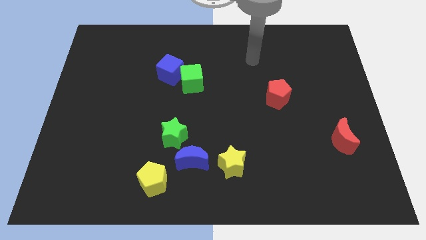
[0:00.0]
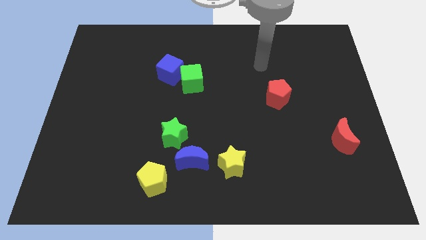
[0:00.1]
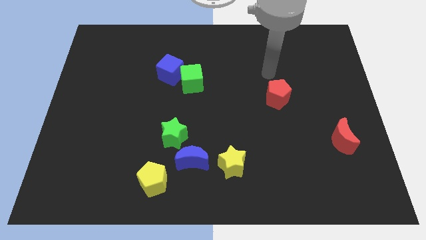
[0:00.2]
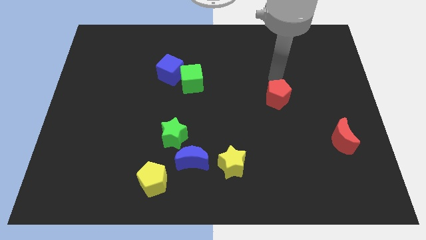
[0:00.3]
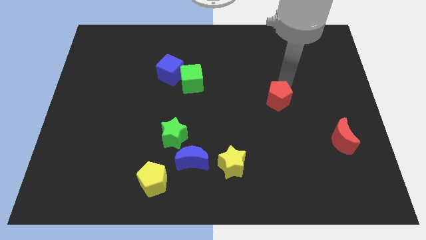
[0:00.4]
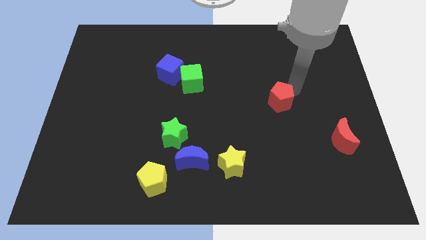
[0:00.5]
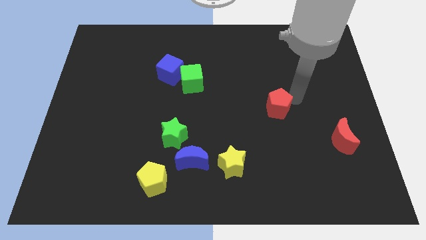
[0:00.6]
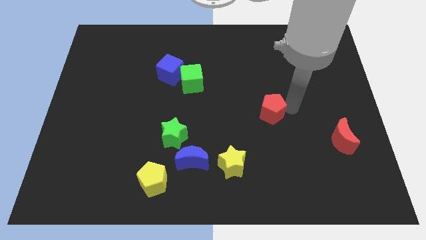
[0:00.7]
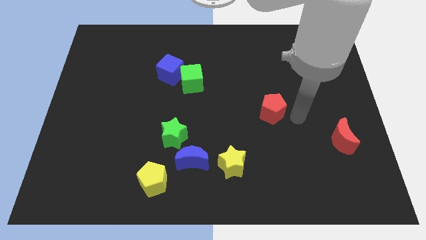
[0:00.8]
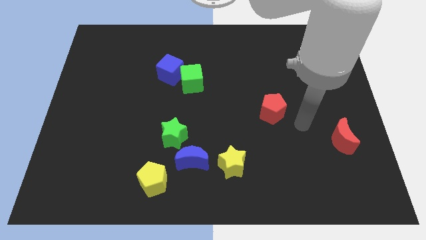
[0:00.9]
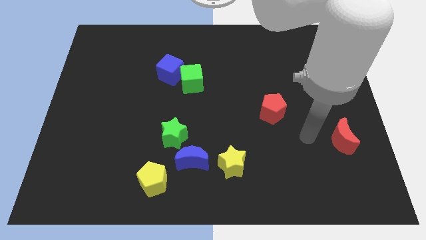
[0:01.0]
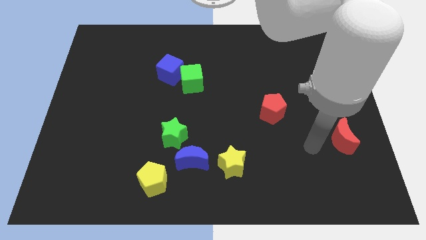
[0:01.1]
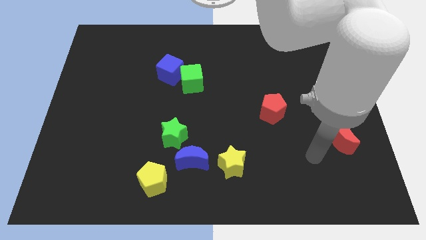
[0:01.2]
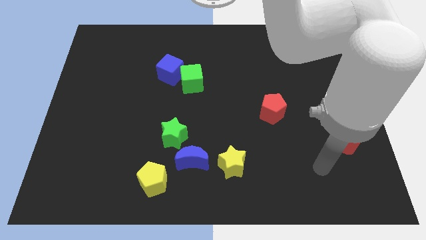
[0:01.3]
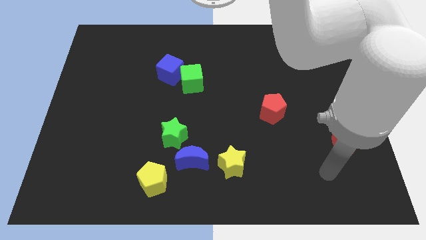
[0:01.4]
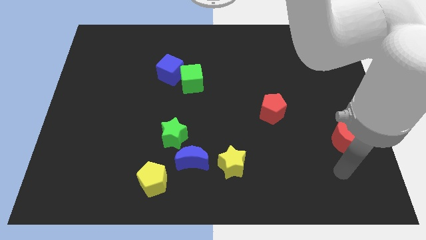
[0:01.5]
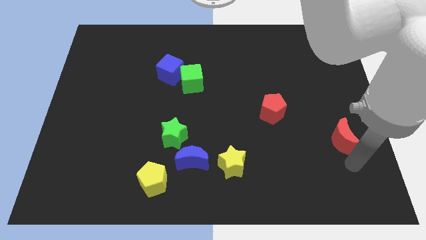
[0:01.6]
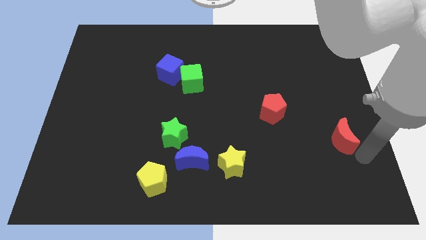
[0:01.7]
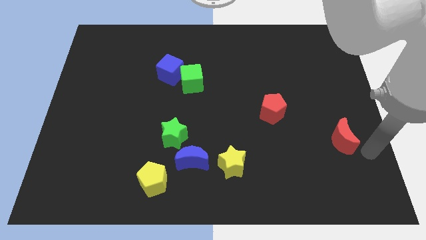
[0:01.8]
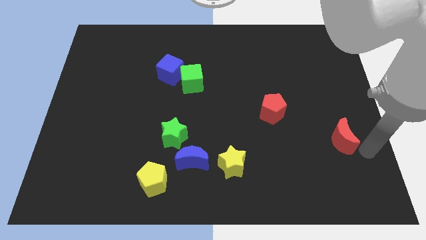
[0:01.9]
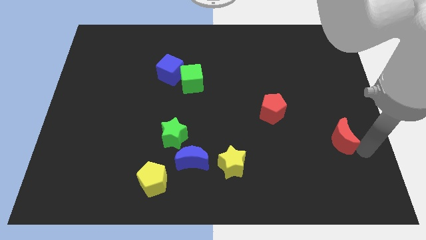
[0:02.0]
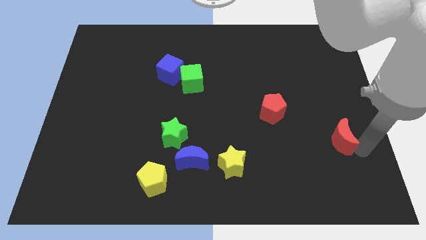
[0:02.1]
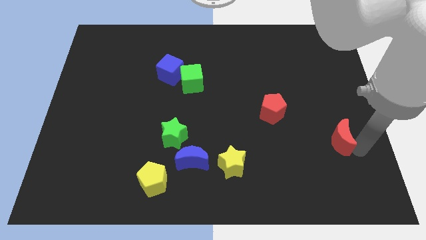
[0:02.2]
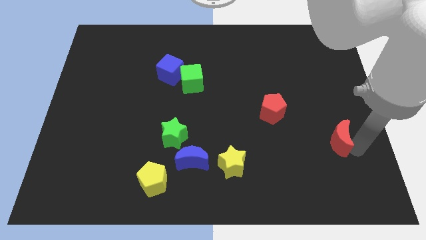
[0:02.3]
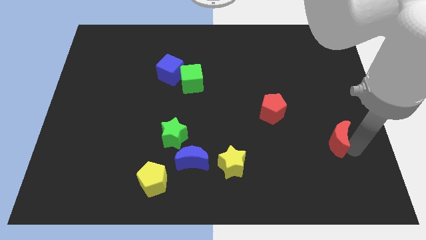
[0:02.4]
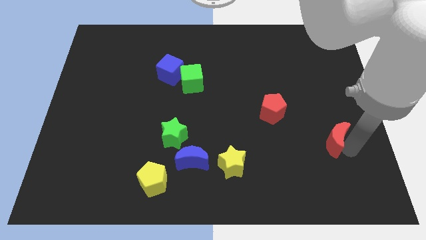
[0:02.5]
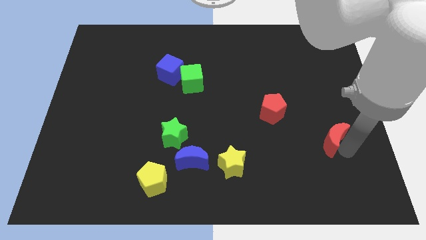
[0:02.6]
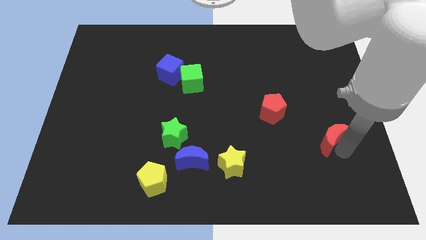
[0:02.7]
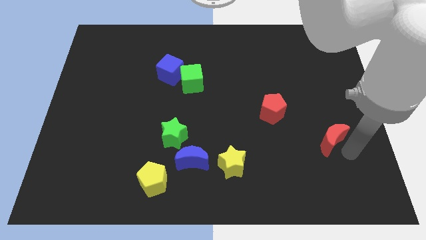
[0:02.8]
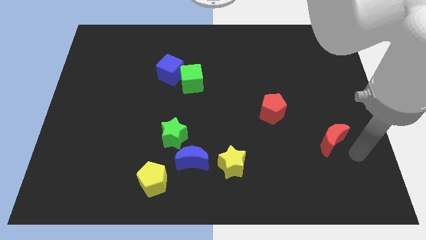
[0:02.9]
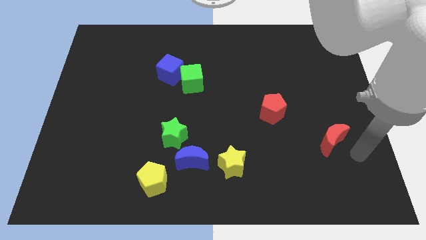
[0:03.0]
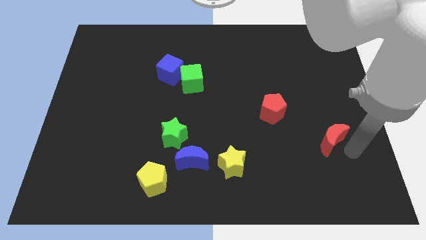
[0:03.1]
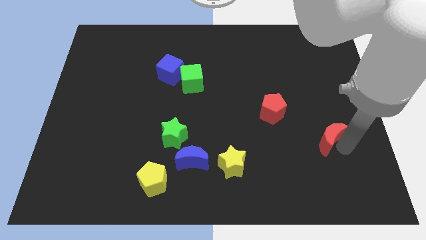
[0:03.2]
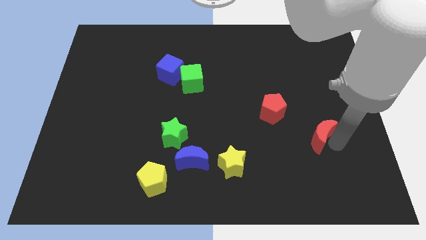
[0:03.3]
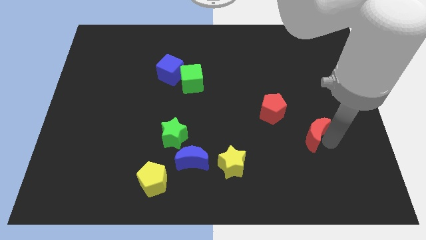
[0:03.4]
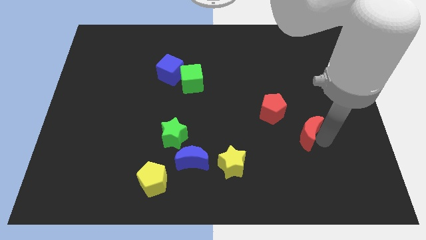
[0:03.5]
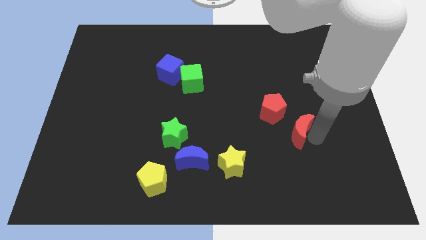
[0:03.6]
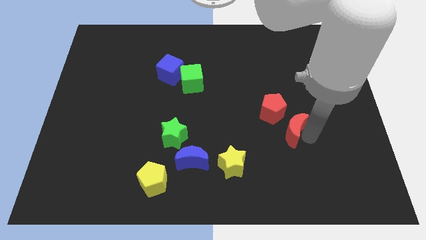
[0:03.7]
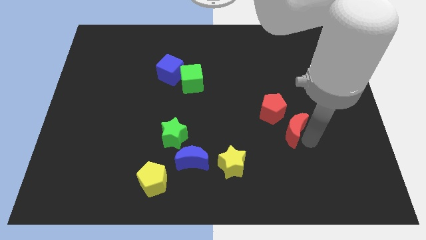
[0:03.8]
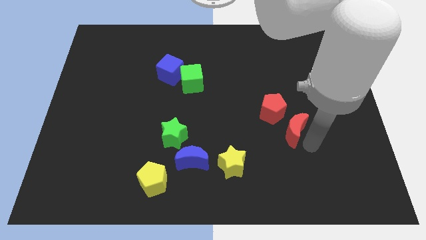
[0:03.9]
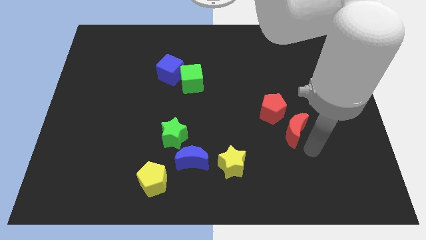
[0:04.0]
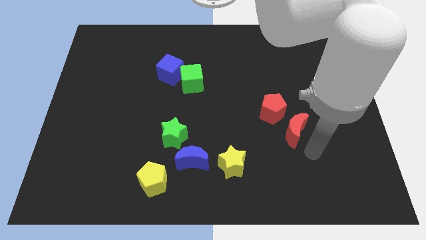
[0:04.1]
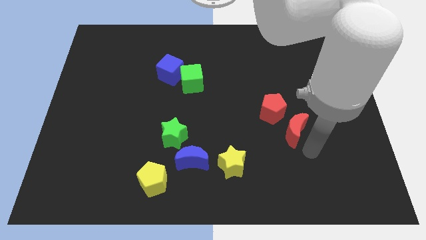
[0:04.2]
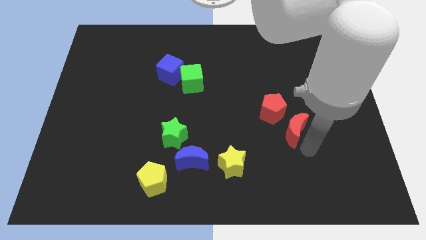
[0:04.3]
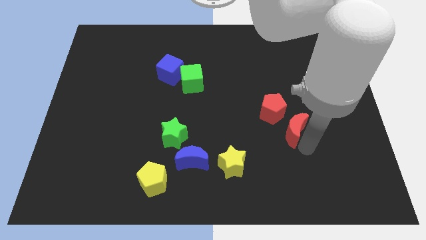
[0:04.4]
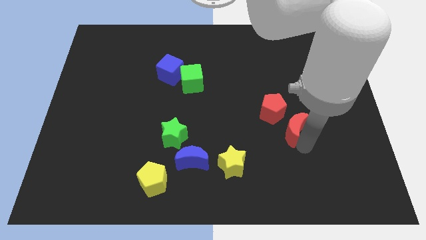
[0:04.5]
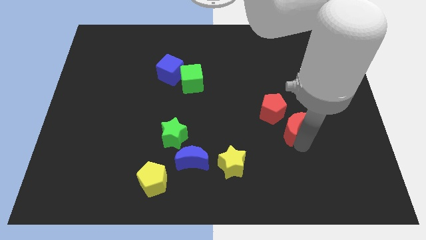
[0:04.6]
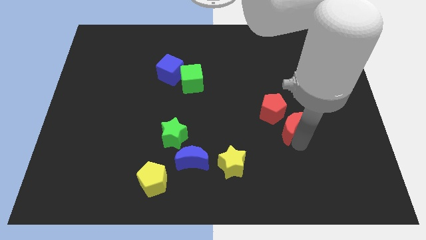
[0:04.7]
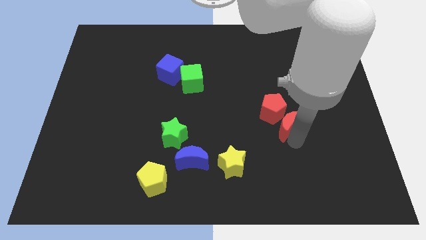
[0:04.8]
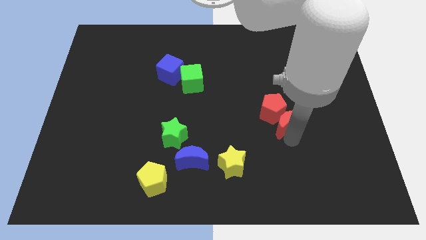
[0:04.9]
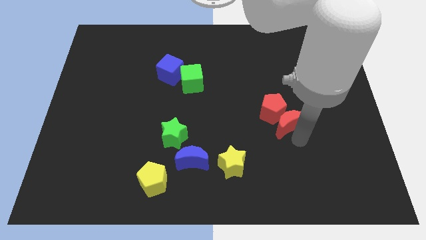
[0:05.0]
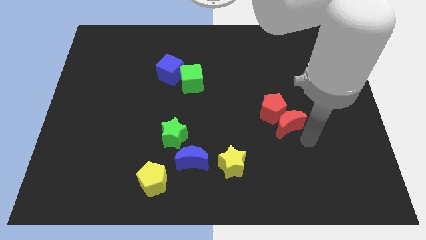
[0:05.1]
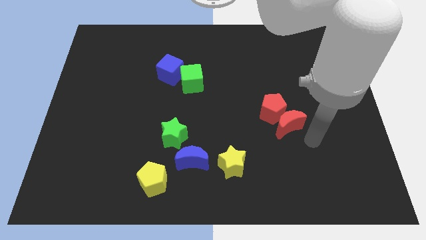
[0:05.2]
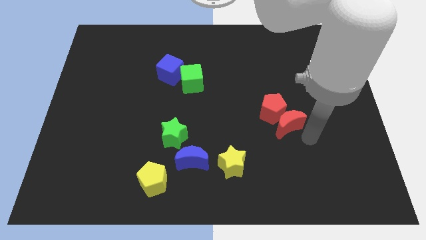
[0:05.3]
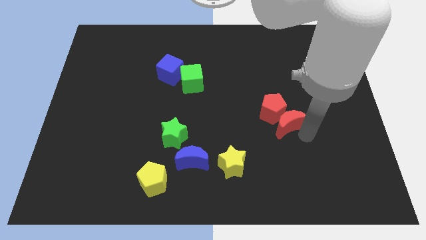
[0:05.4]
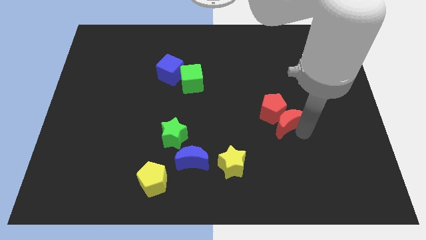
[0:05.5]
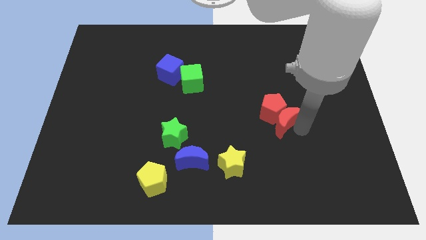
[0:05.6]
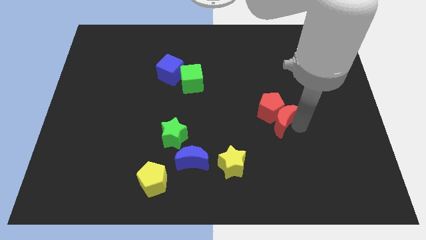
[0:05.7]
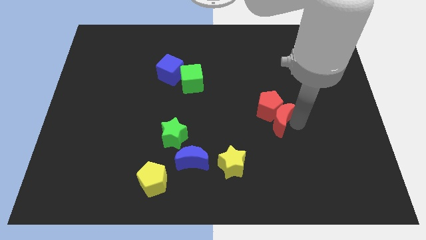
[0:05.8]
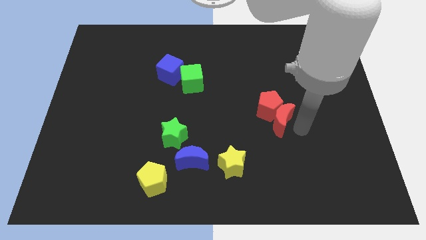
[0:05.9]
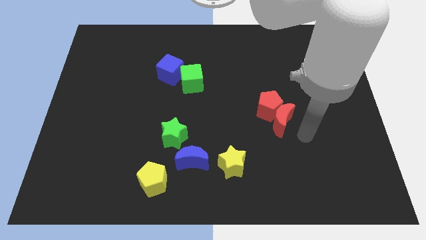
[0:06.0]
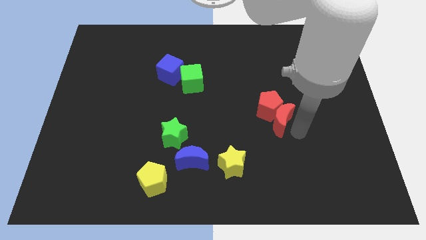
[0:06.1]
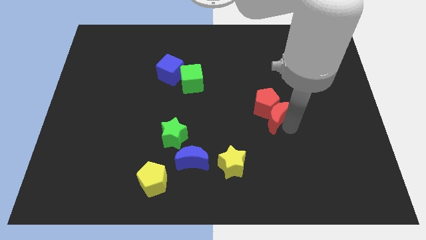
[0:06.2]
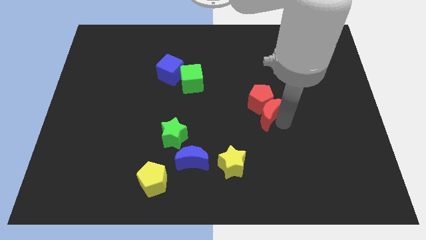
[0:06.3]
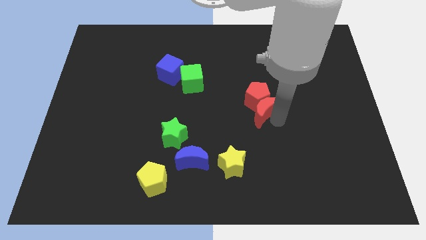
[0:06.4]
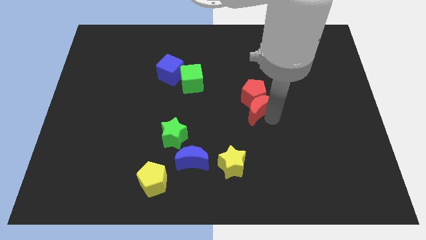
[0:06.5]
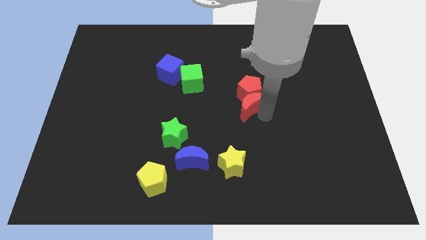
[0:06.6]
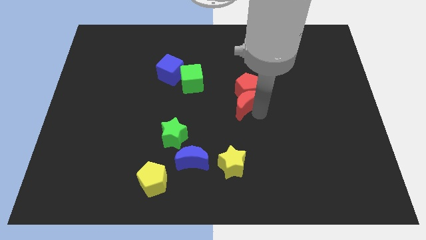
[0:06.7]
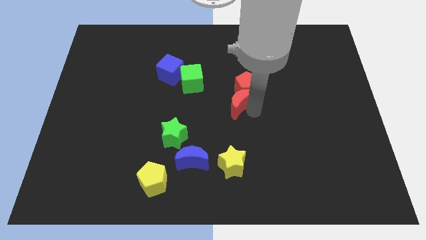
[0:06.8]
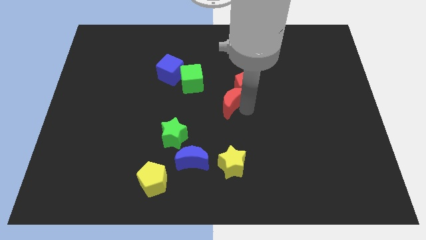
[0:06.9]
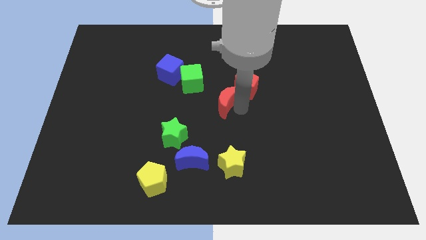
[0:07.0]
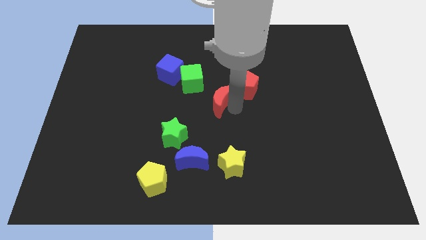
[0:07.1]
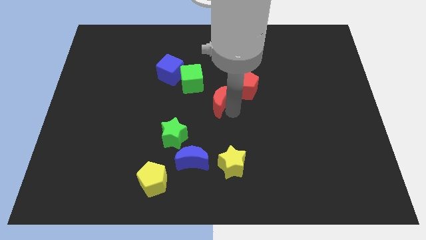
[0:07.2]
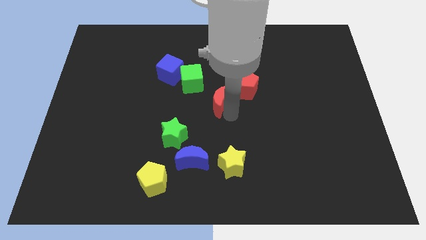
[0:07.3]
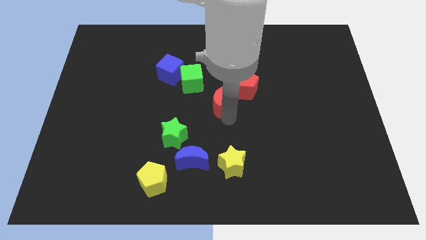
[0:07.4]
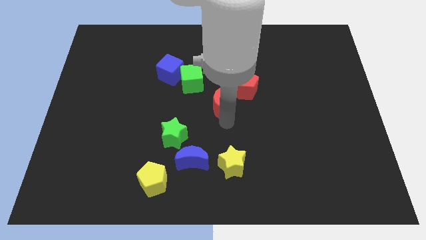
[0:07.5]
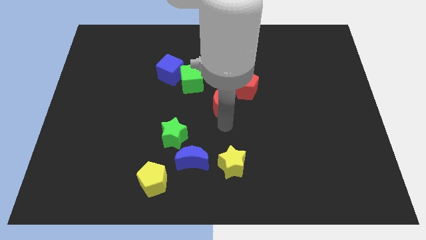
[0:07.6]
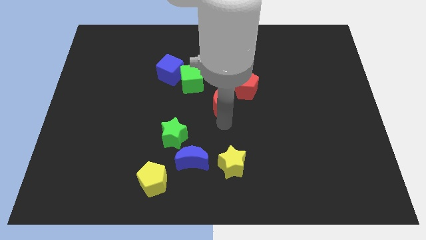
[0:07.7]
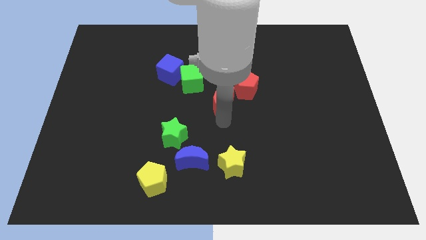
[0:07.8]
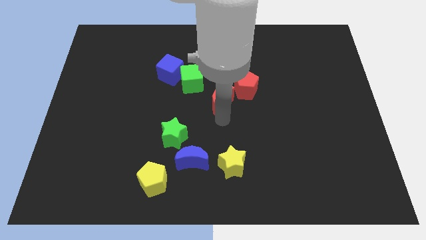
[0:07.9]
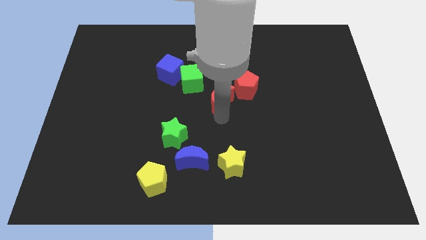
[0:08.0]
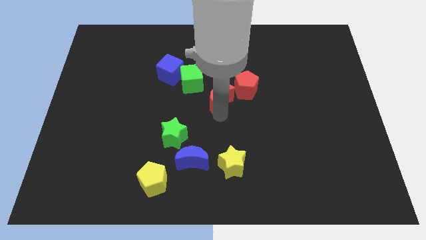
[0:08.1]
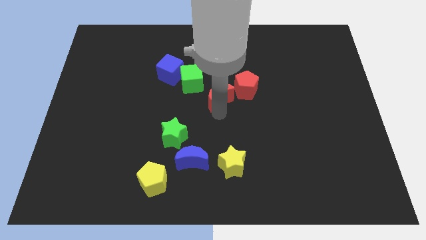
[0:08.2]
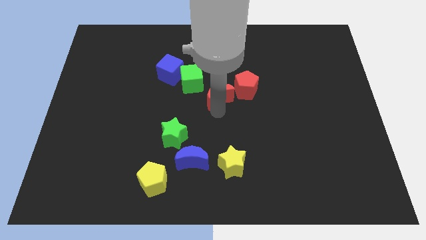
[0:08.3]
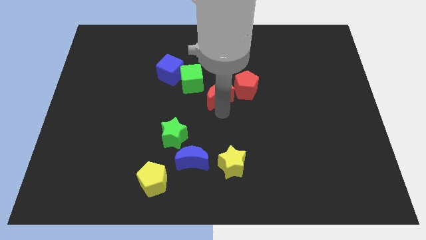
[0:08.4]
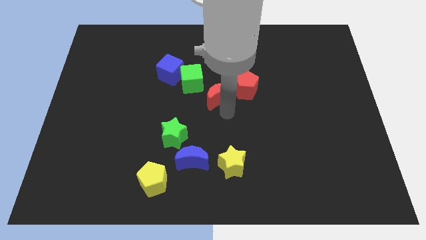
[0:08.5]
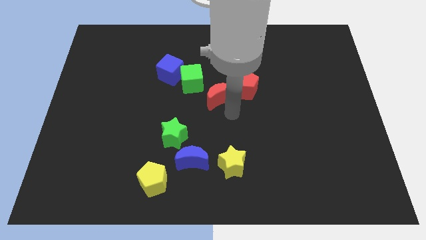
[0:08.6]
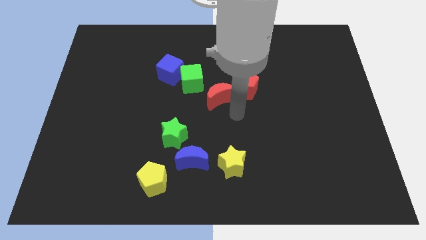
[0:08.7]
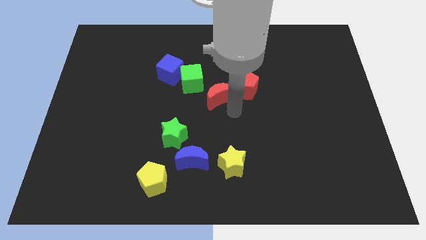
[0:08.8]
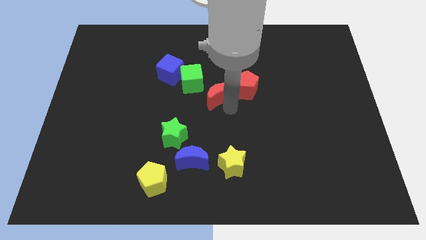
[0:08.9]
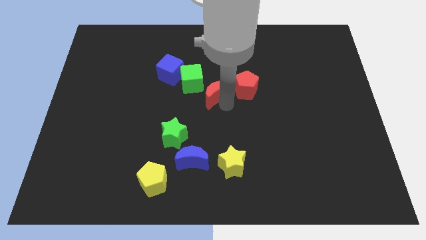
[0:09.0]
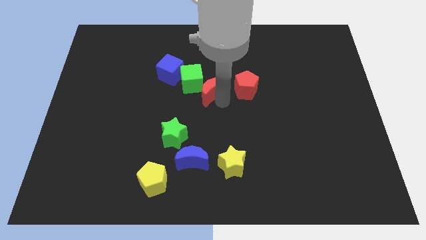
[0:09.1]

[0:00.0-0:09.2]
push the red moon to the green cube
